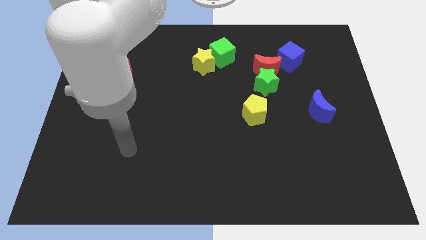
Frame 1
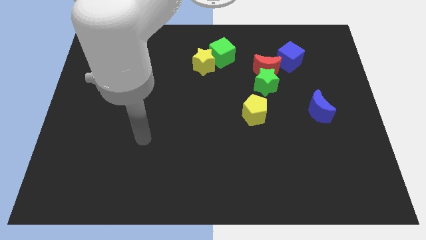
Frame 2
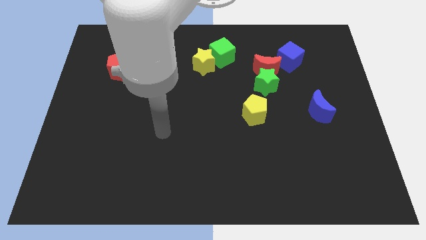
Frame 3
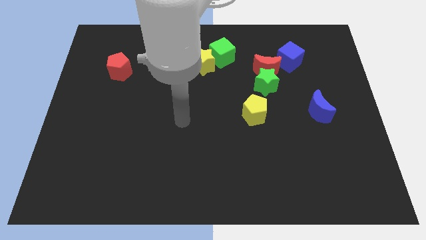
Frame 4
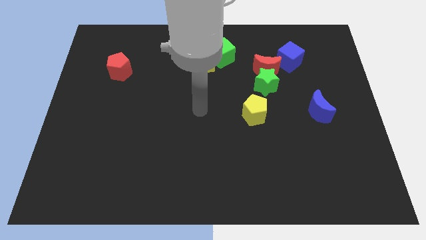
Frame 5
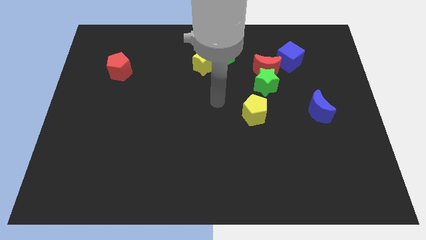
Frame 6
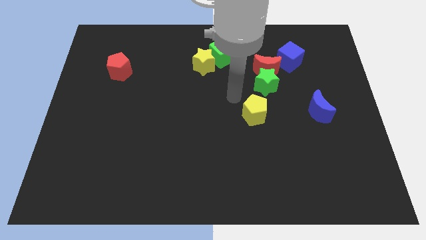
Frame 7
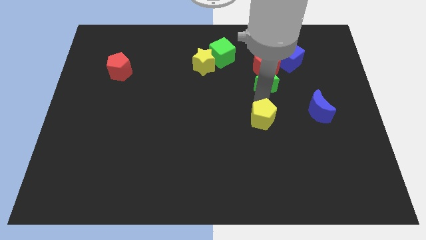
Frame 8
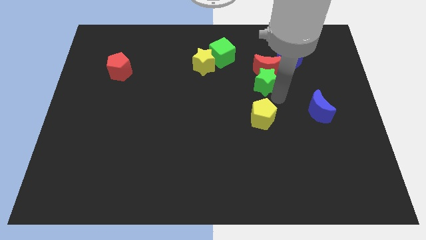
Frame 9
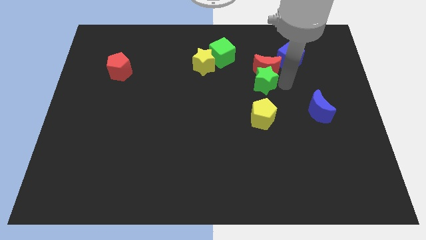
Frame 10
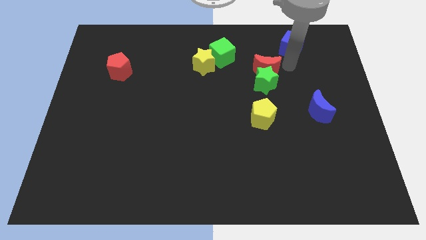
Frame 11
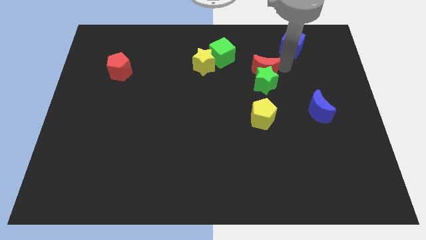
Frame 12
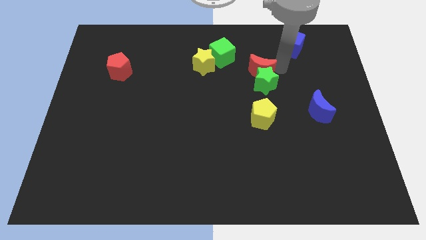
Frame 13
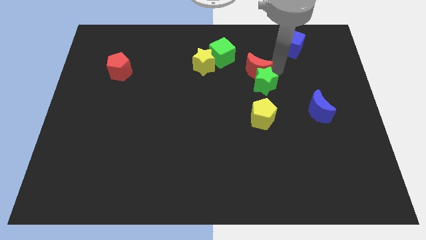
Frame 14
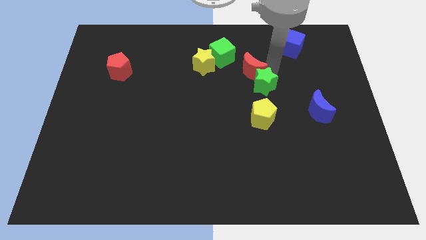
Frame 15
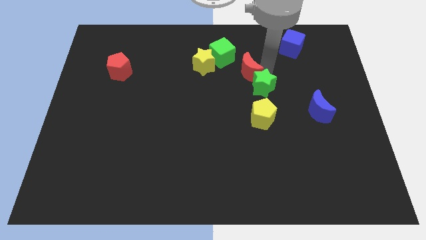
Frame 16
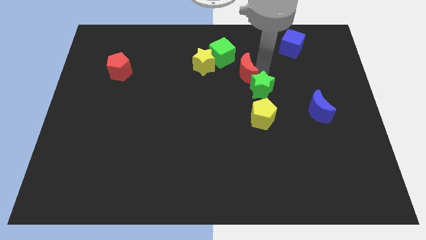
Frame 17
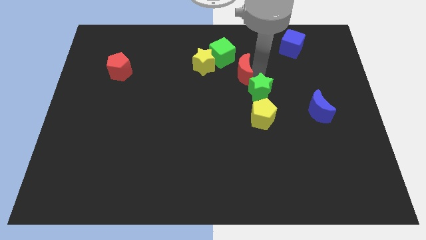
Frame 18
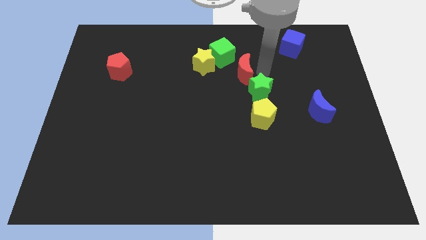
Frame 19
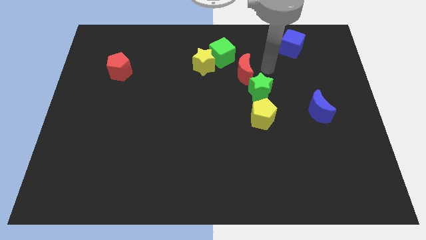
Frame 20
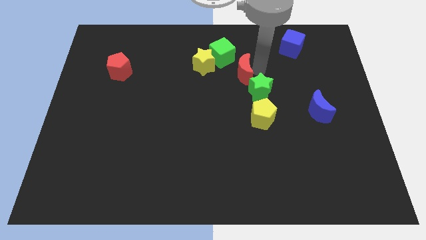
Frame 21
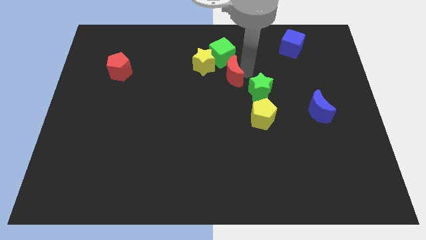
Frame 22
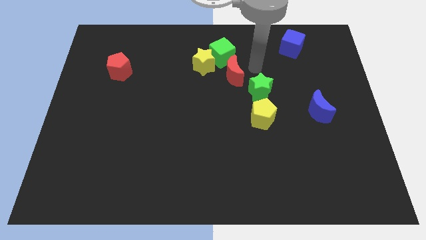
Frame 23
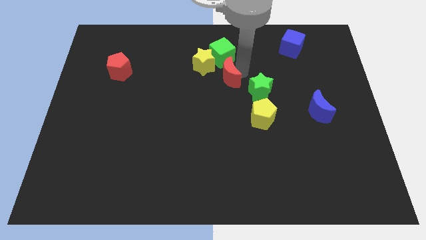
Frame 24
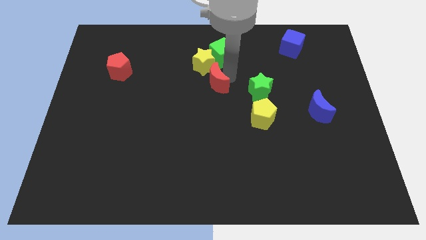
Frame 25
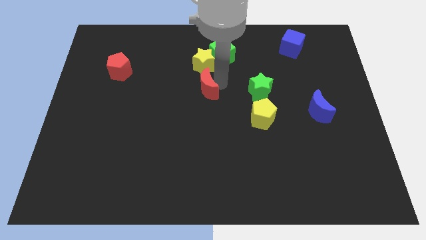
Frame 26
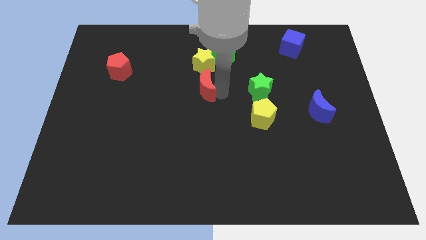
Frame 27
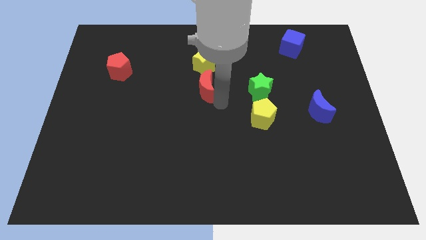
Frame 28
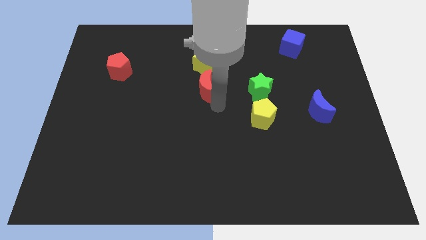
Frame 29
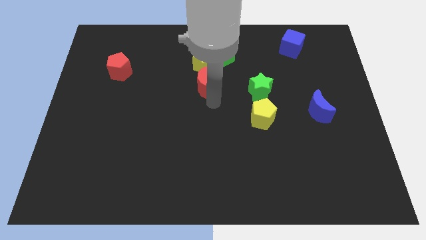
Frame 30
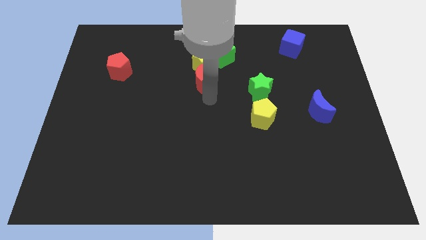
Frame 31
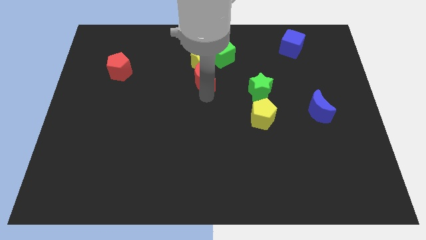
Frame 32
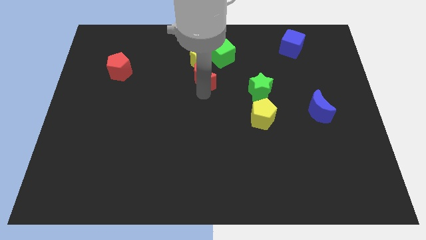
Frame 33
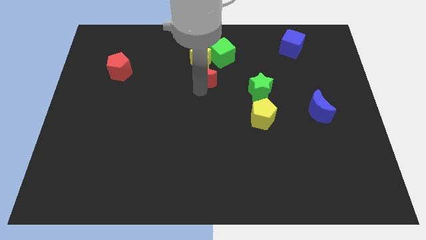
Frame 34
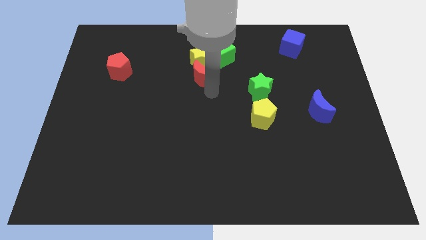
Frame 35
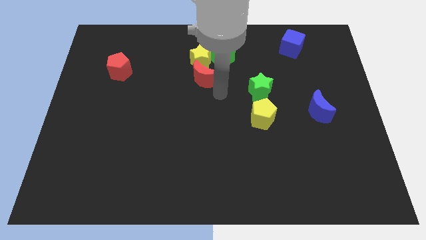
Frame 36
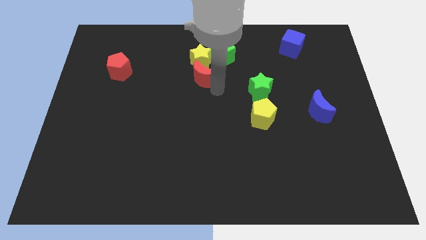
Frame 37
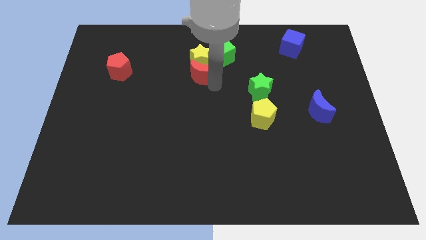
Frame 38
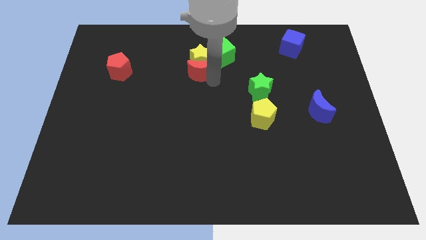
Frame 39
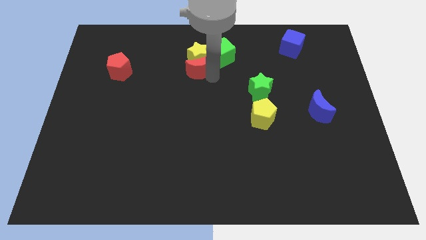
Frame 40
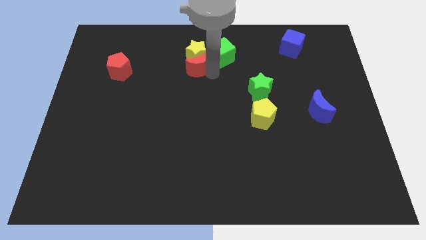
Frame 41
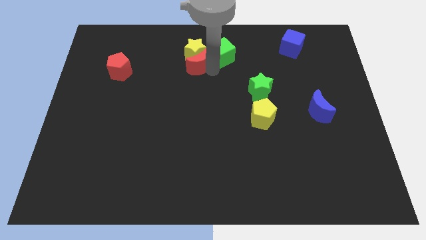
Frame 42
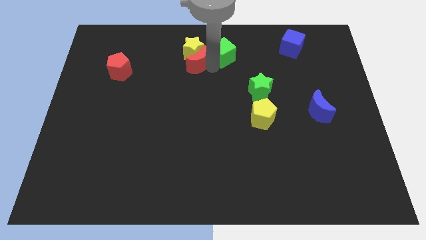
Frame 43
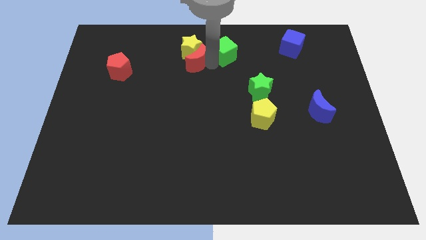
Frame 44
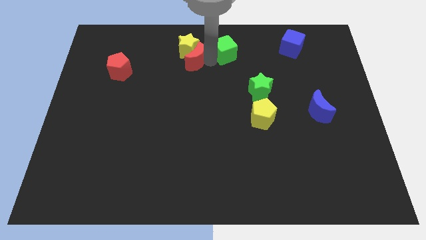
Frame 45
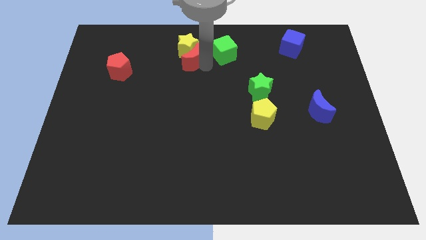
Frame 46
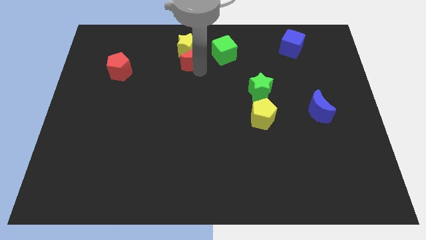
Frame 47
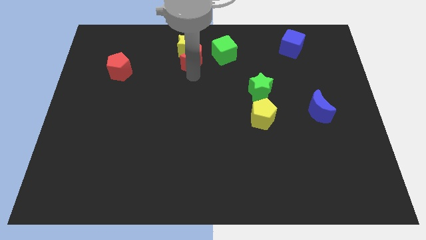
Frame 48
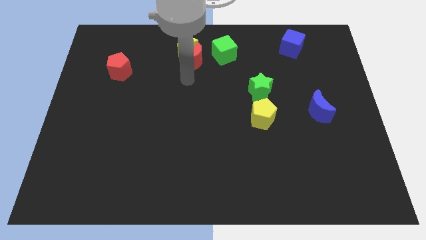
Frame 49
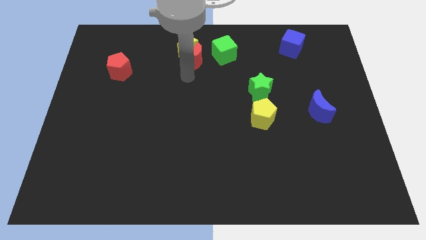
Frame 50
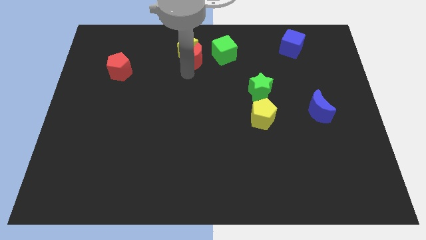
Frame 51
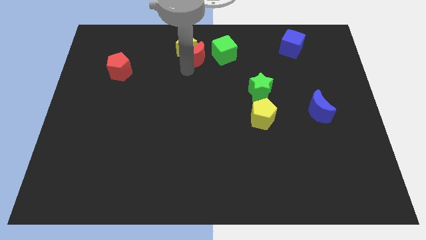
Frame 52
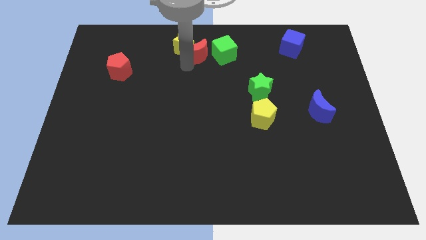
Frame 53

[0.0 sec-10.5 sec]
put the red moon to the top side

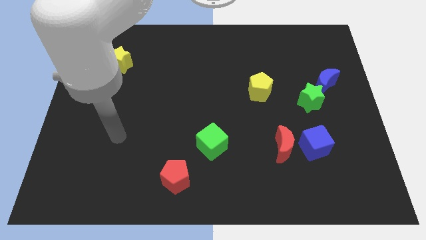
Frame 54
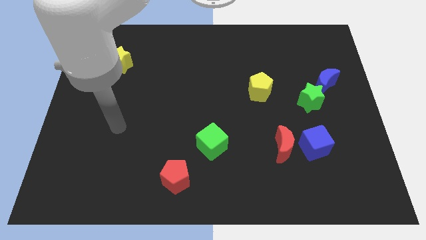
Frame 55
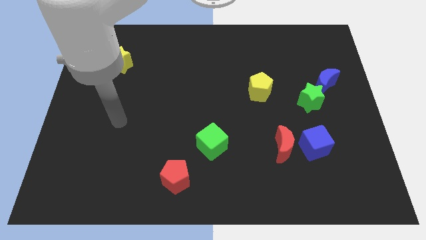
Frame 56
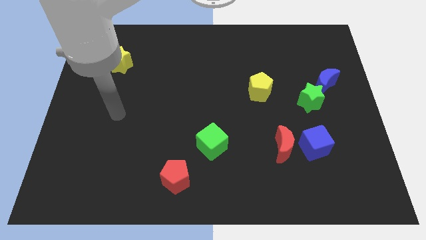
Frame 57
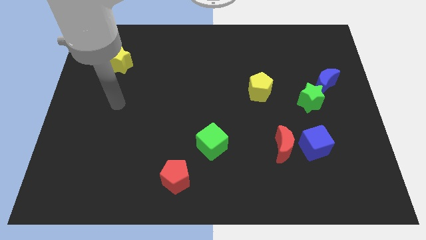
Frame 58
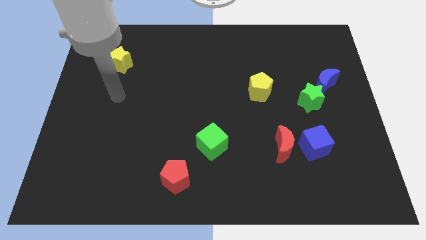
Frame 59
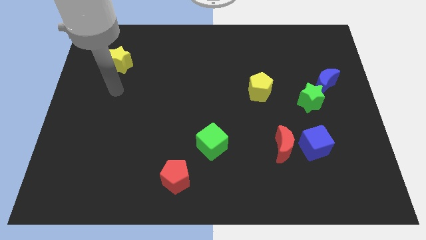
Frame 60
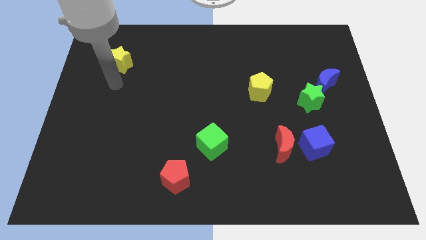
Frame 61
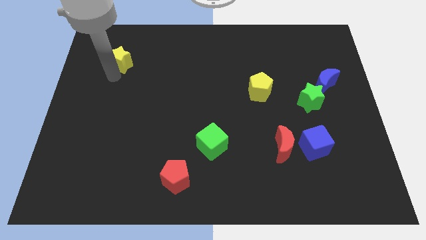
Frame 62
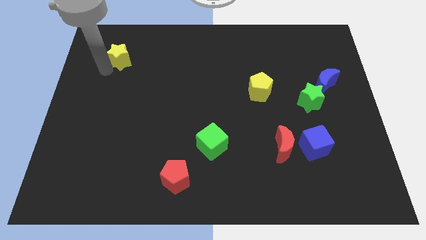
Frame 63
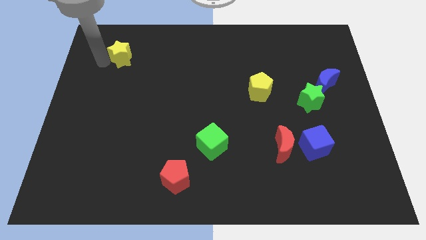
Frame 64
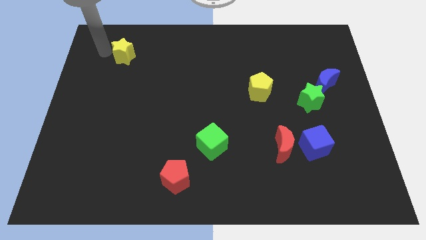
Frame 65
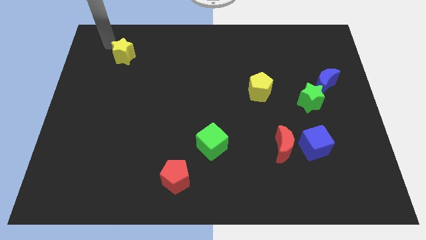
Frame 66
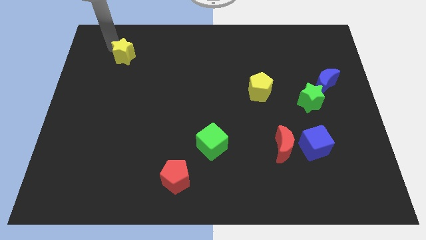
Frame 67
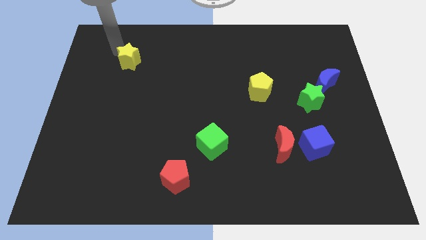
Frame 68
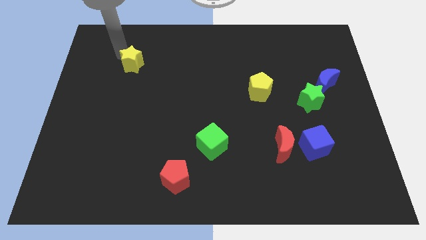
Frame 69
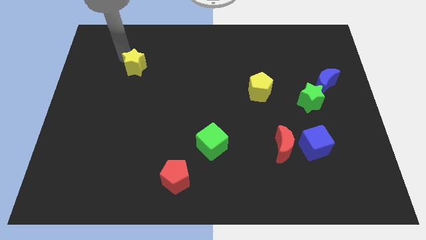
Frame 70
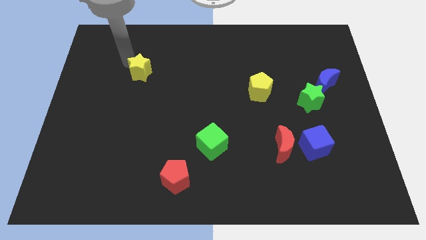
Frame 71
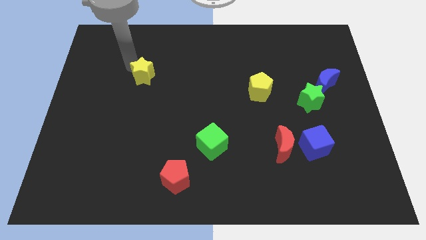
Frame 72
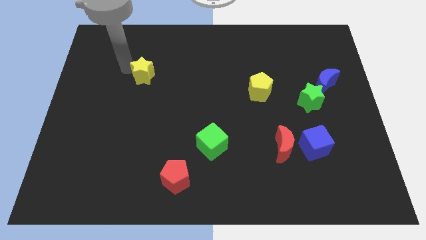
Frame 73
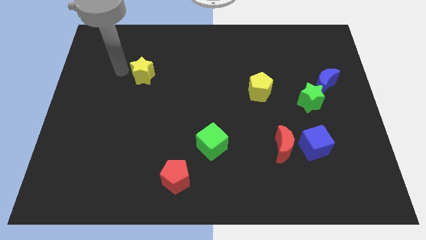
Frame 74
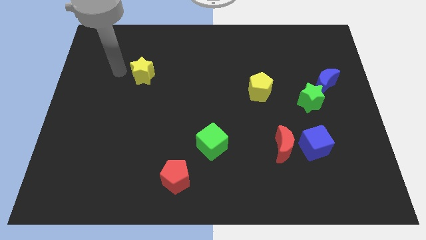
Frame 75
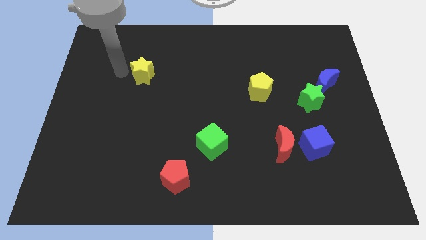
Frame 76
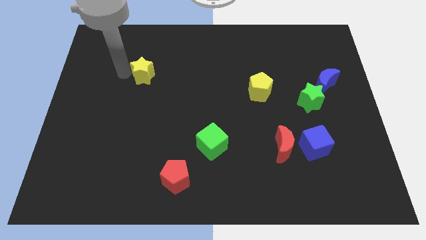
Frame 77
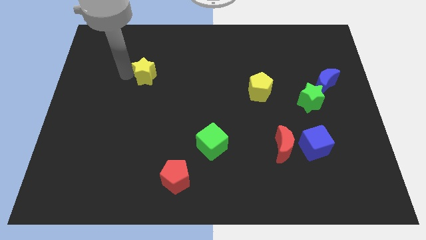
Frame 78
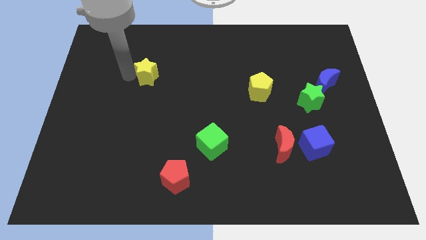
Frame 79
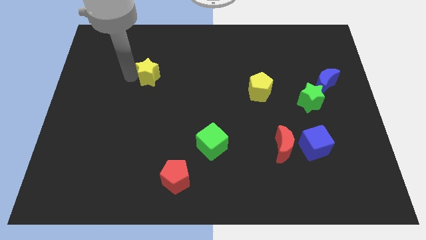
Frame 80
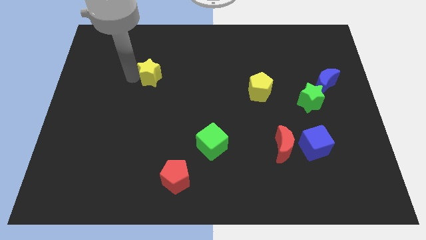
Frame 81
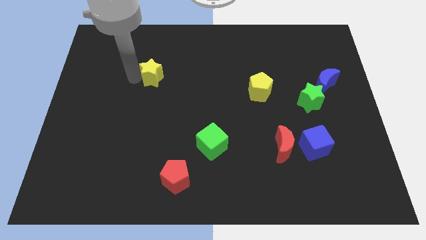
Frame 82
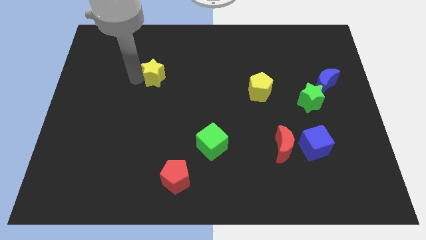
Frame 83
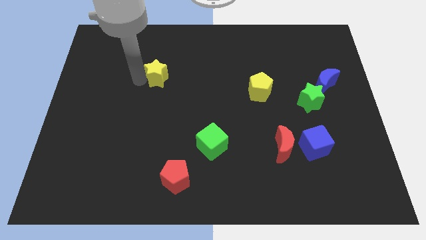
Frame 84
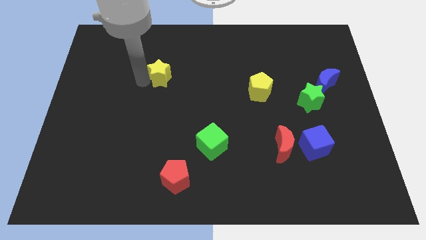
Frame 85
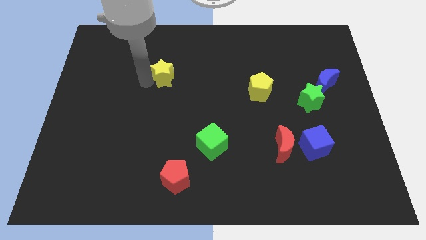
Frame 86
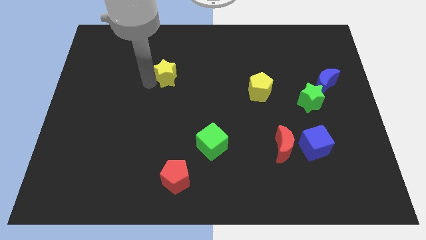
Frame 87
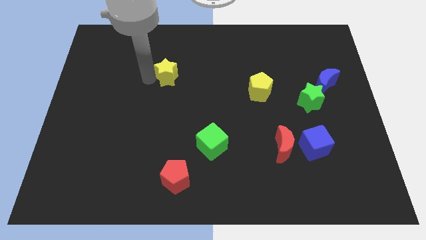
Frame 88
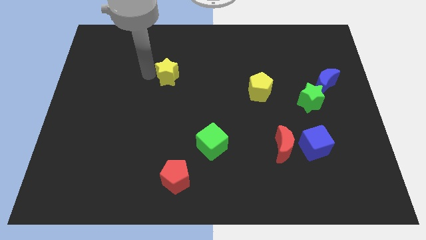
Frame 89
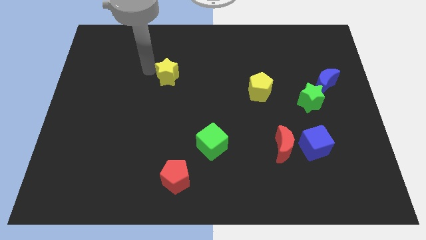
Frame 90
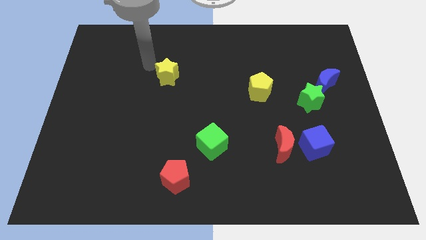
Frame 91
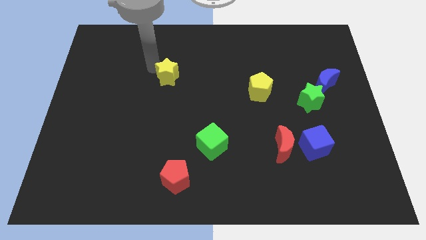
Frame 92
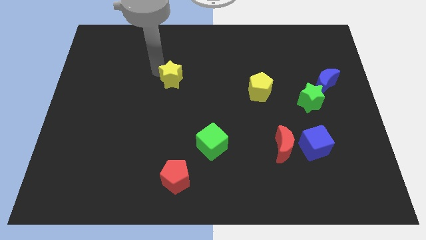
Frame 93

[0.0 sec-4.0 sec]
push the yellow star to the middle
